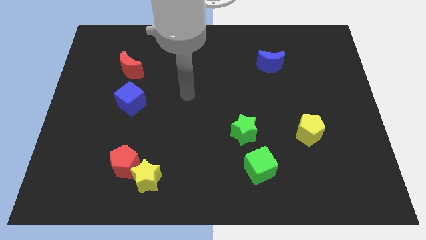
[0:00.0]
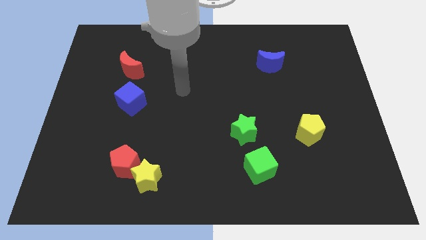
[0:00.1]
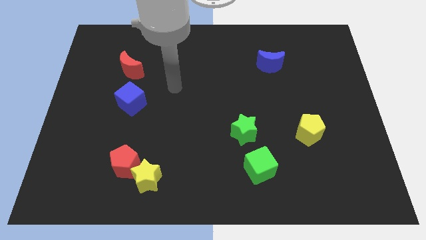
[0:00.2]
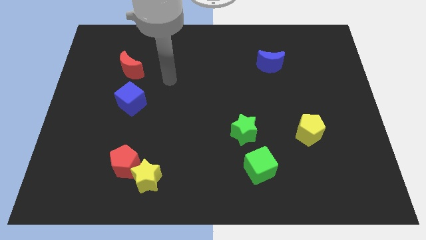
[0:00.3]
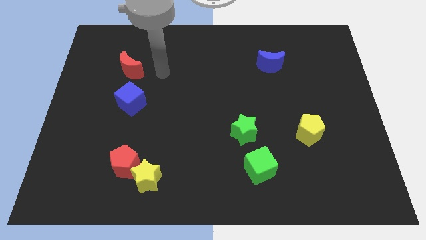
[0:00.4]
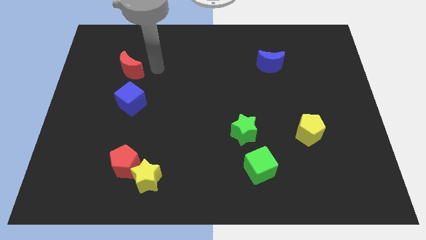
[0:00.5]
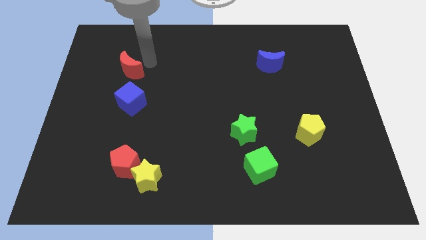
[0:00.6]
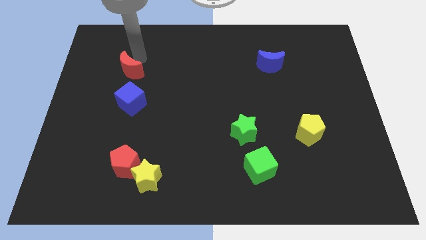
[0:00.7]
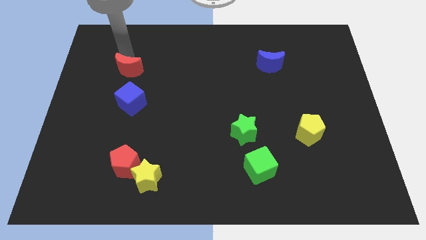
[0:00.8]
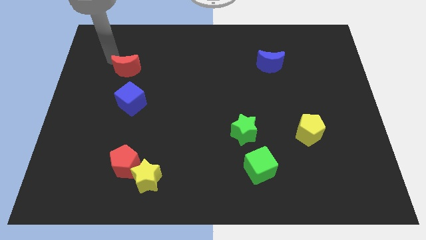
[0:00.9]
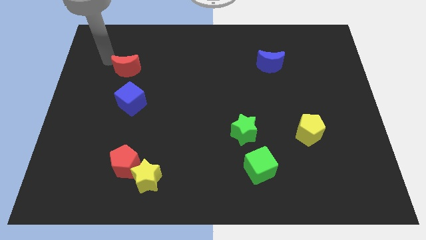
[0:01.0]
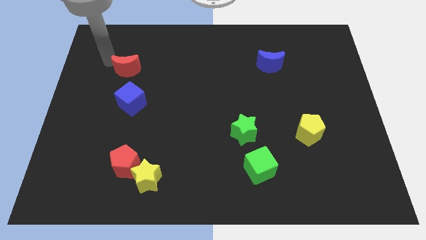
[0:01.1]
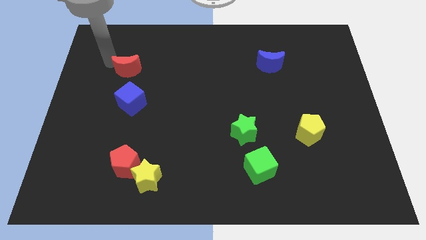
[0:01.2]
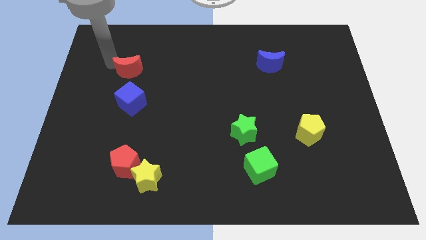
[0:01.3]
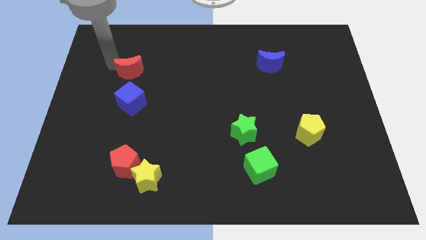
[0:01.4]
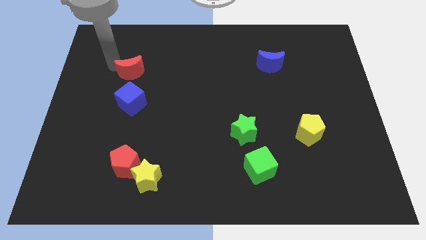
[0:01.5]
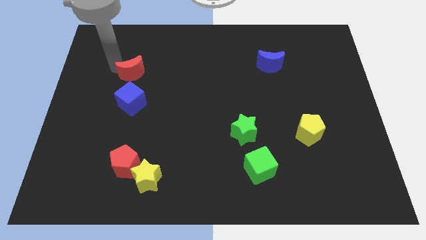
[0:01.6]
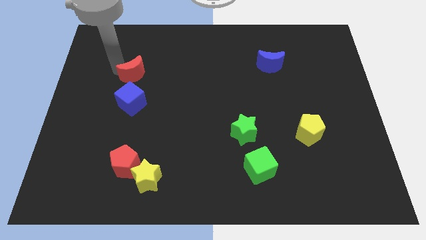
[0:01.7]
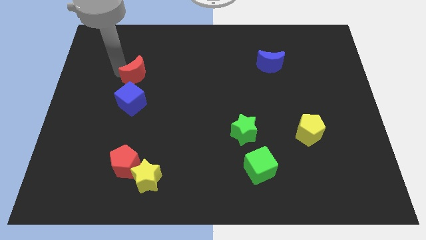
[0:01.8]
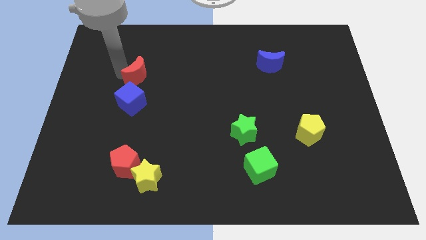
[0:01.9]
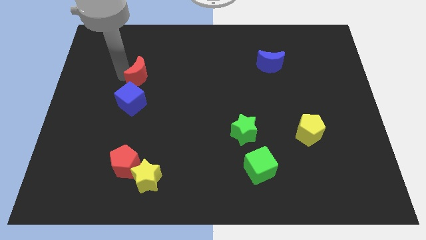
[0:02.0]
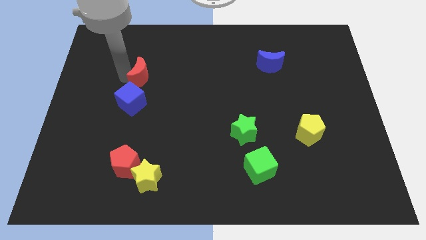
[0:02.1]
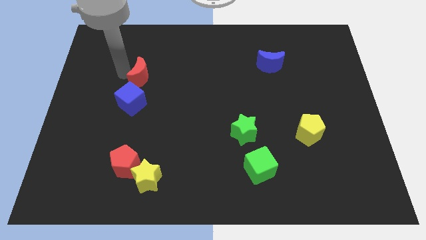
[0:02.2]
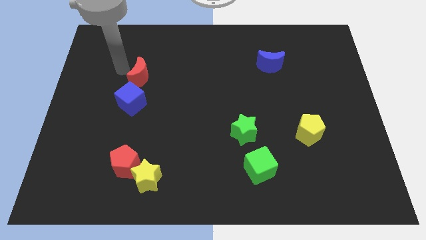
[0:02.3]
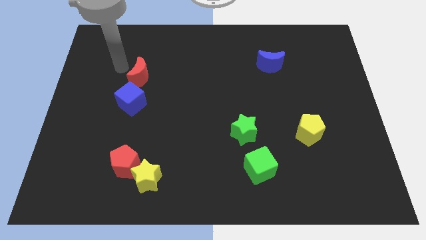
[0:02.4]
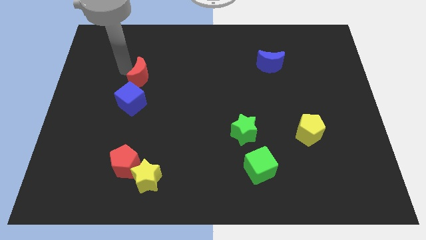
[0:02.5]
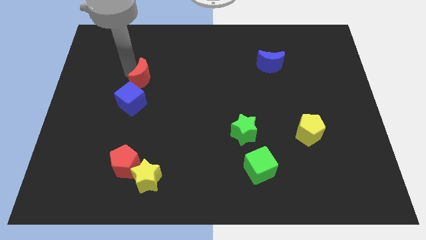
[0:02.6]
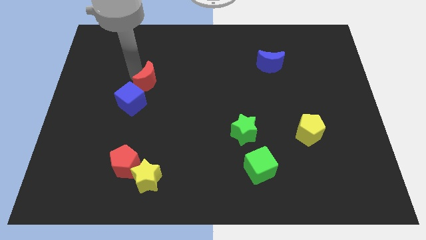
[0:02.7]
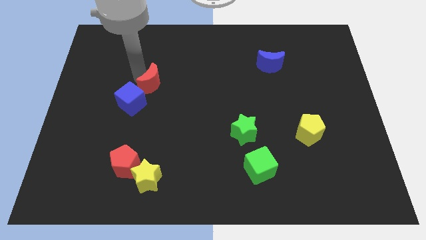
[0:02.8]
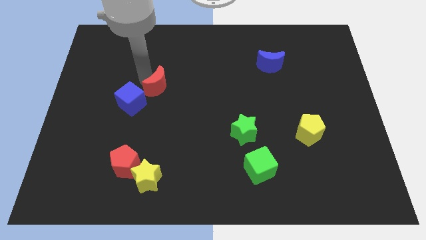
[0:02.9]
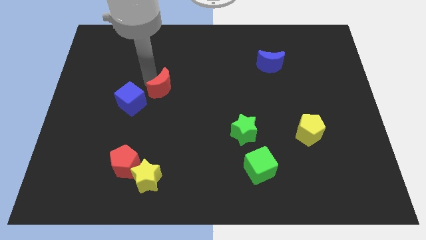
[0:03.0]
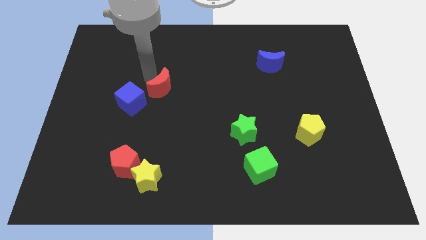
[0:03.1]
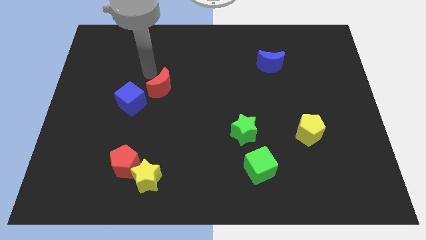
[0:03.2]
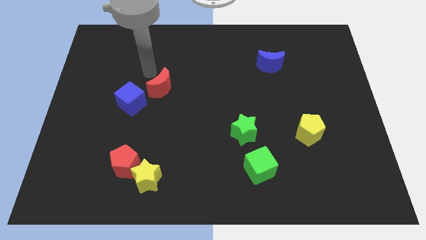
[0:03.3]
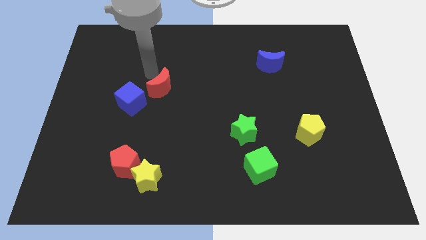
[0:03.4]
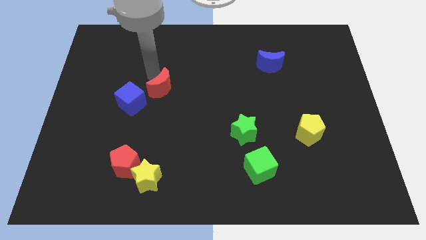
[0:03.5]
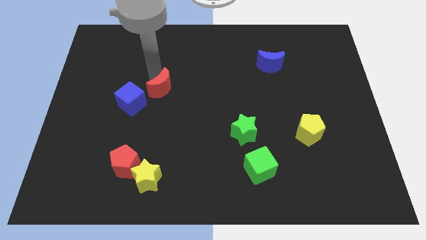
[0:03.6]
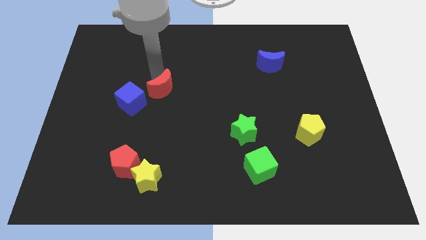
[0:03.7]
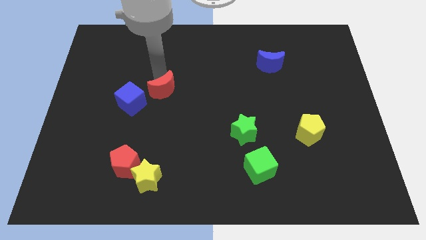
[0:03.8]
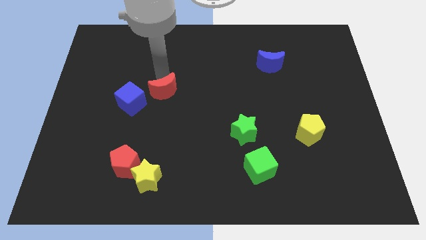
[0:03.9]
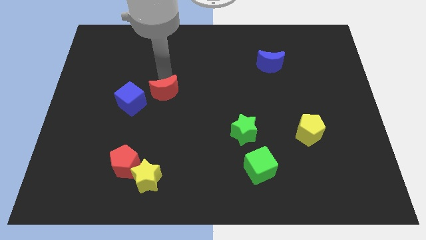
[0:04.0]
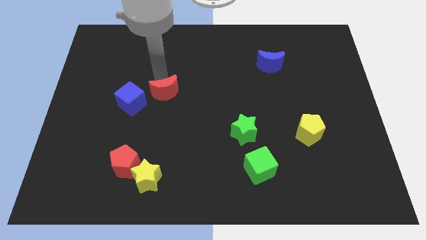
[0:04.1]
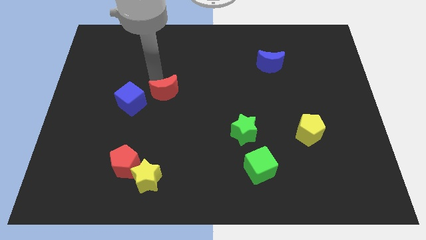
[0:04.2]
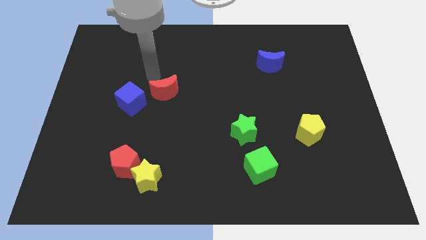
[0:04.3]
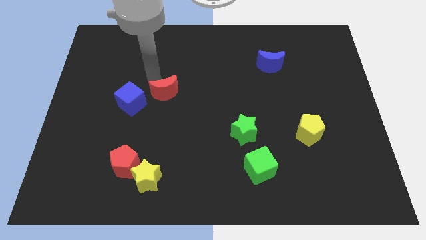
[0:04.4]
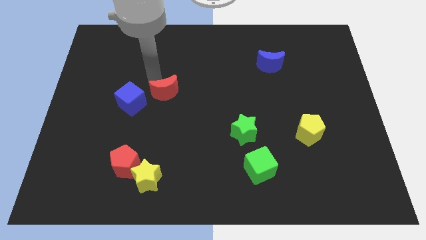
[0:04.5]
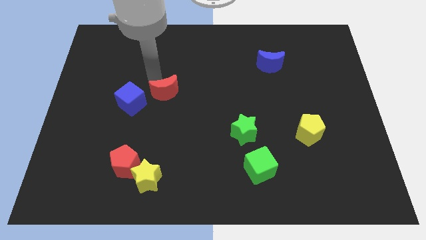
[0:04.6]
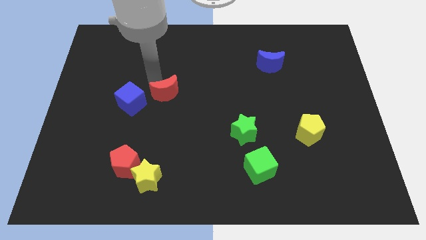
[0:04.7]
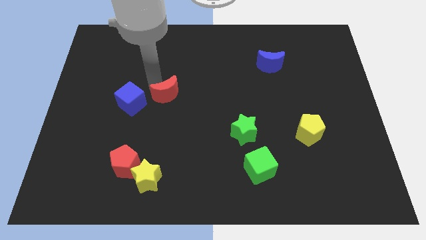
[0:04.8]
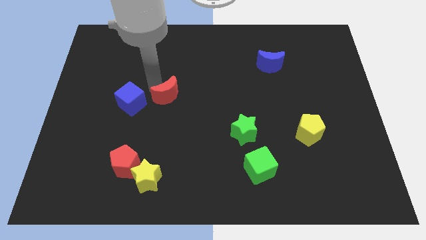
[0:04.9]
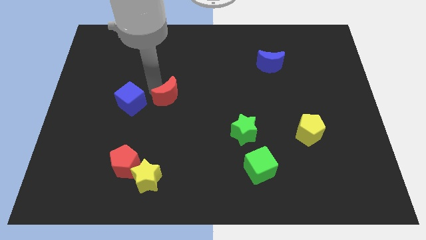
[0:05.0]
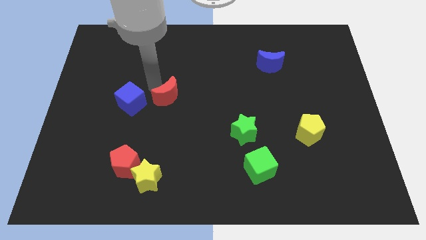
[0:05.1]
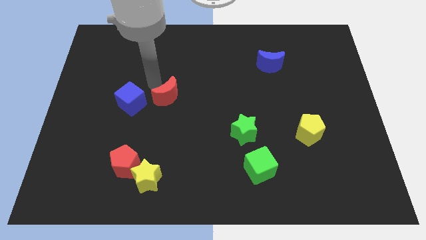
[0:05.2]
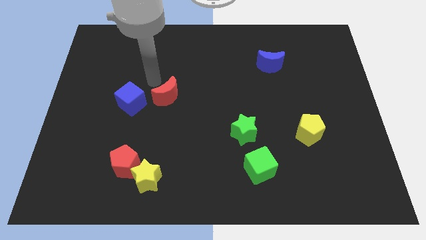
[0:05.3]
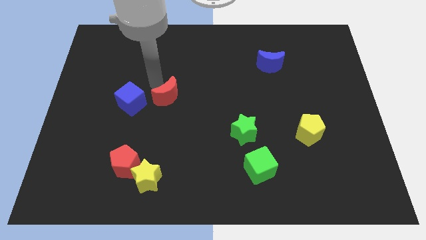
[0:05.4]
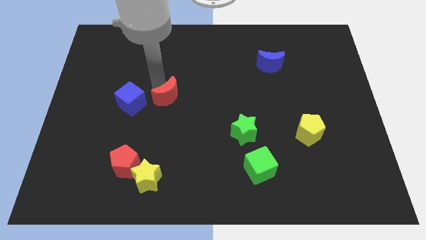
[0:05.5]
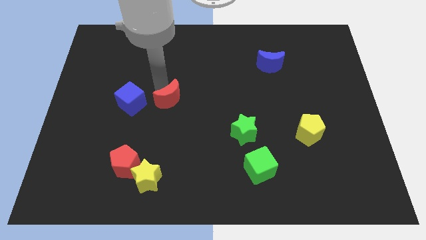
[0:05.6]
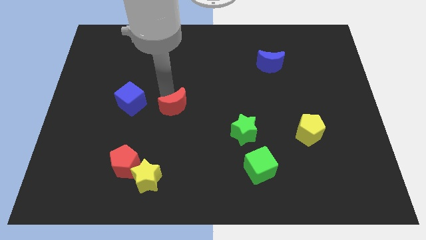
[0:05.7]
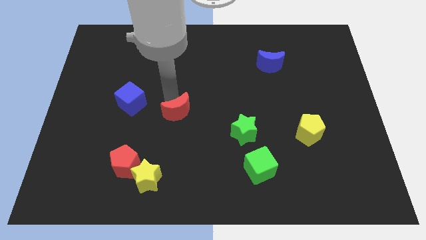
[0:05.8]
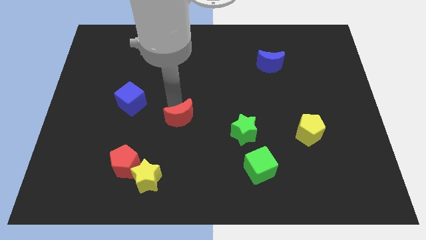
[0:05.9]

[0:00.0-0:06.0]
slide the red moon diagonally down and to the right

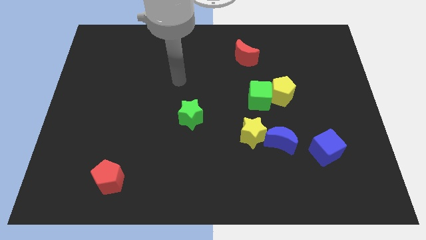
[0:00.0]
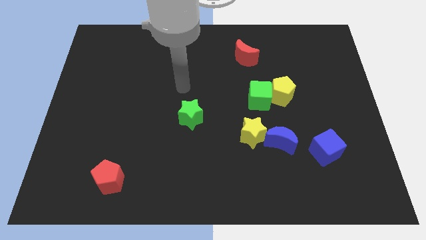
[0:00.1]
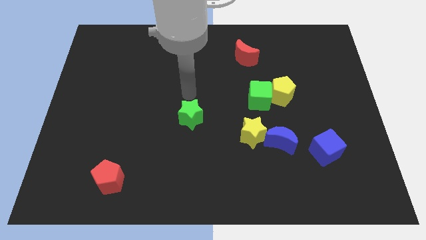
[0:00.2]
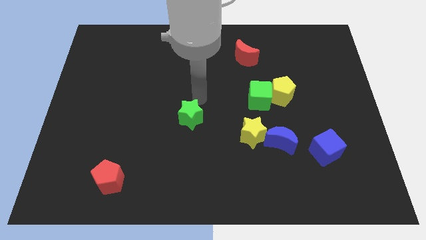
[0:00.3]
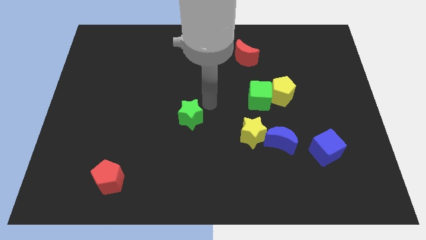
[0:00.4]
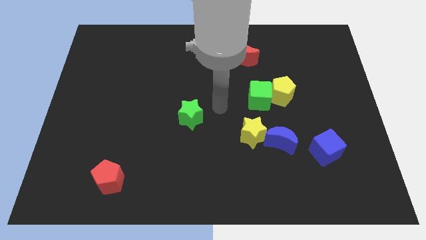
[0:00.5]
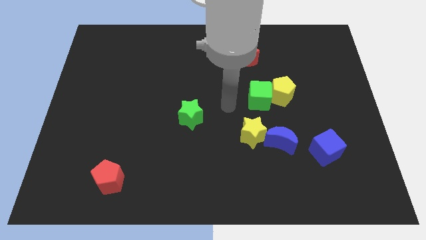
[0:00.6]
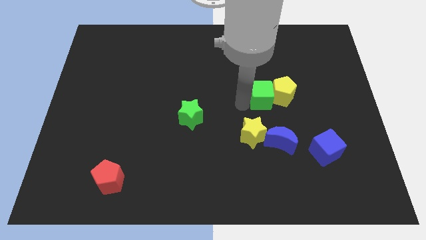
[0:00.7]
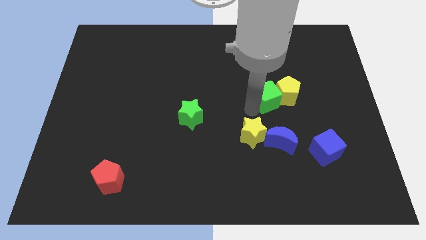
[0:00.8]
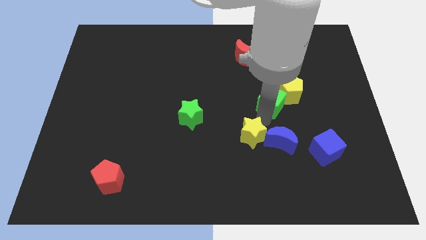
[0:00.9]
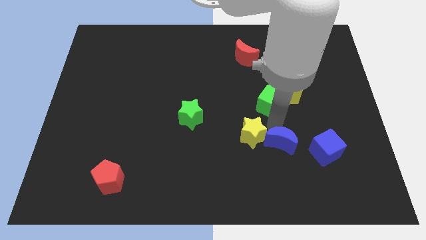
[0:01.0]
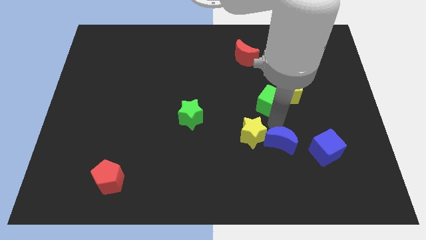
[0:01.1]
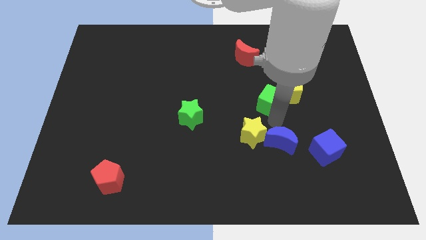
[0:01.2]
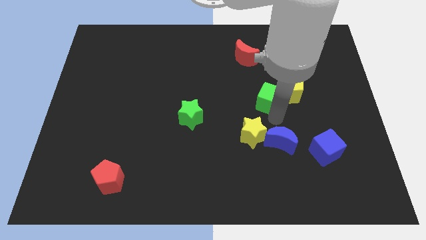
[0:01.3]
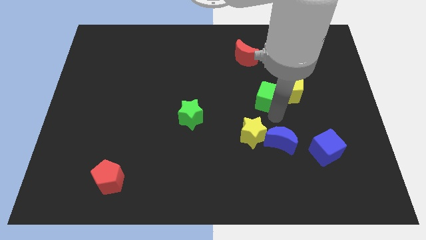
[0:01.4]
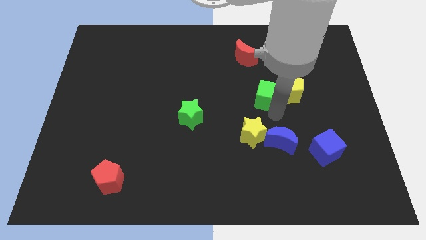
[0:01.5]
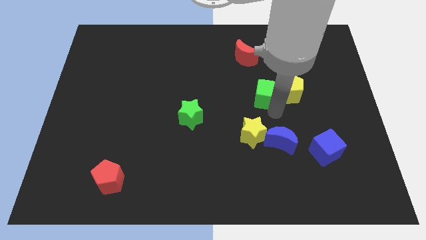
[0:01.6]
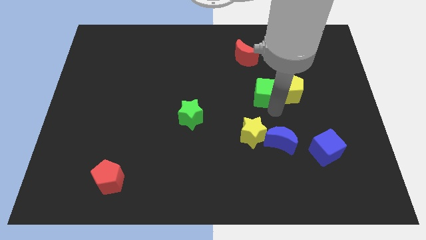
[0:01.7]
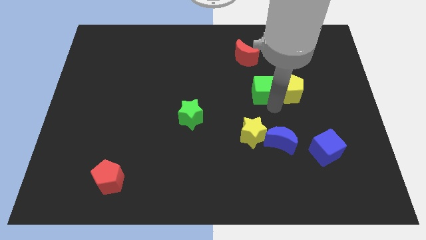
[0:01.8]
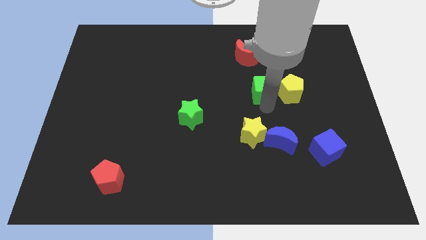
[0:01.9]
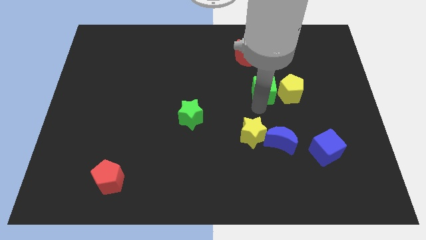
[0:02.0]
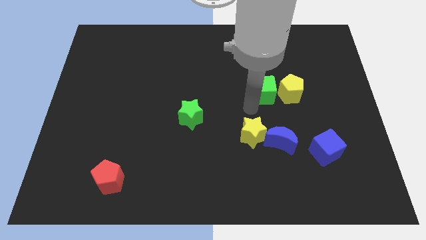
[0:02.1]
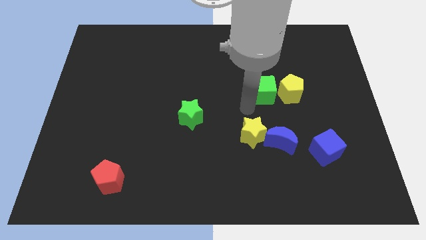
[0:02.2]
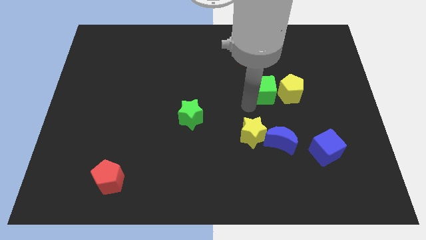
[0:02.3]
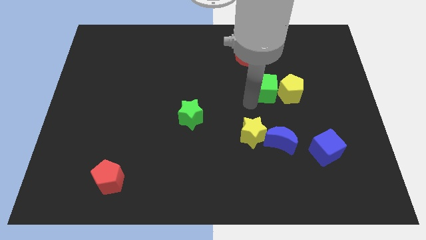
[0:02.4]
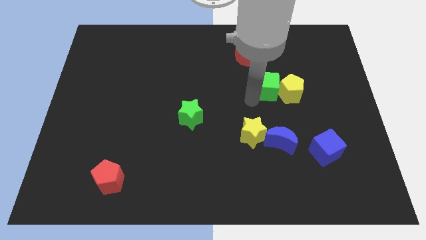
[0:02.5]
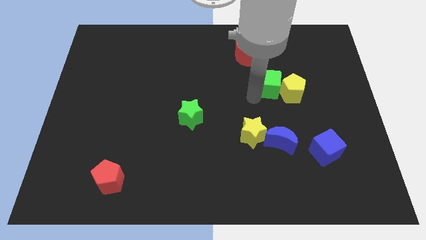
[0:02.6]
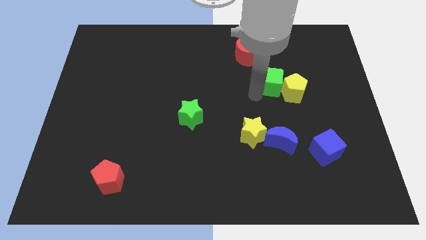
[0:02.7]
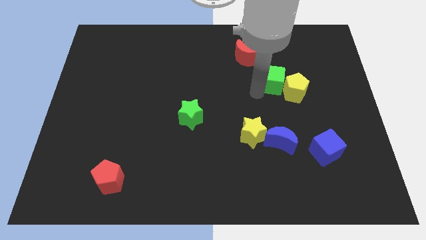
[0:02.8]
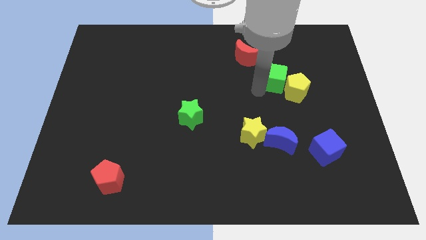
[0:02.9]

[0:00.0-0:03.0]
slightly move the green cube upwards and then to the right
